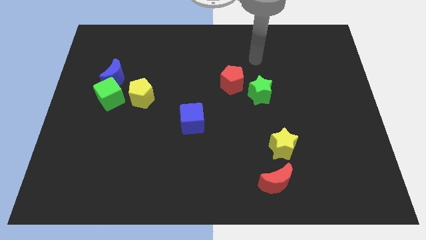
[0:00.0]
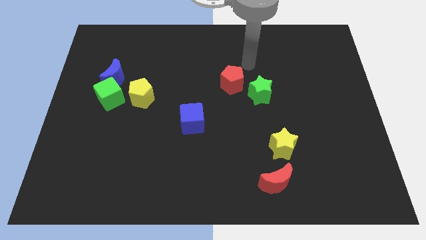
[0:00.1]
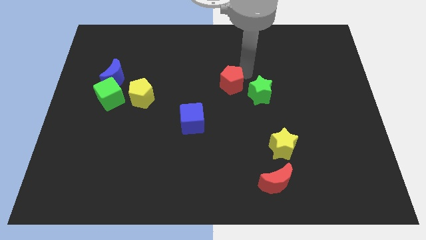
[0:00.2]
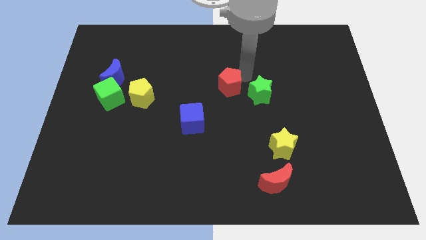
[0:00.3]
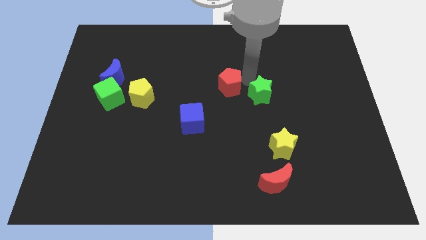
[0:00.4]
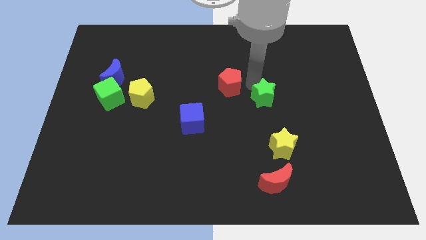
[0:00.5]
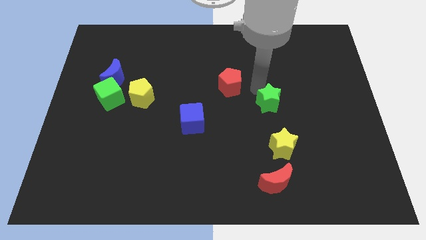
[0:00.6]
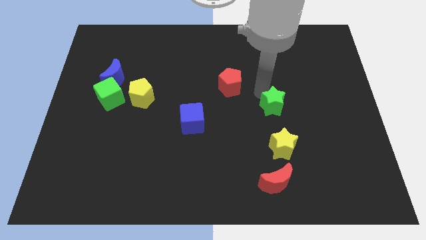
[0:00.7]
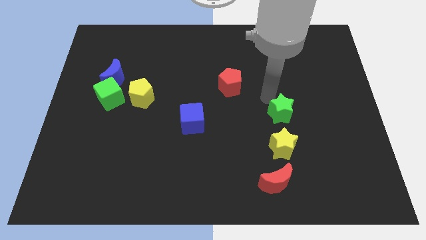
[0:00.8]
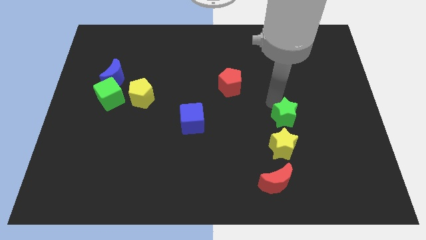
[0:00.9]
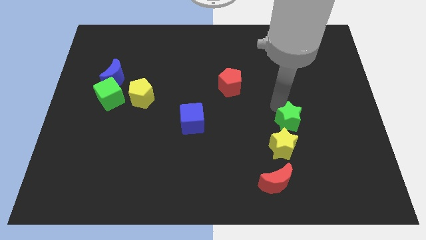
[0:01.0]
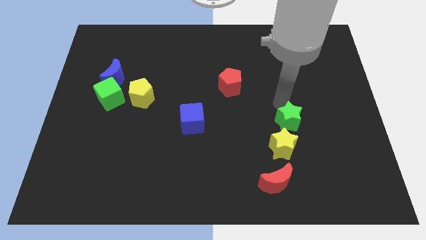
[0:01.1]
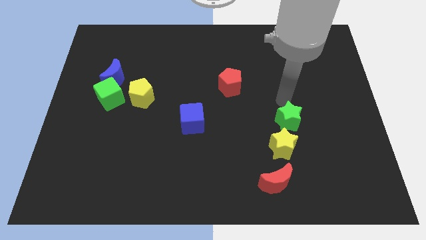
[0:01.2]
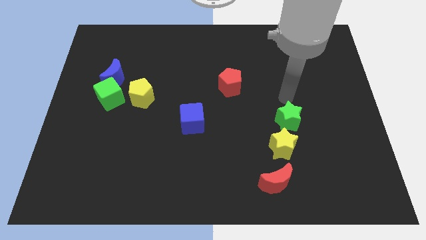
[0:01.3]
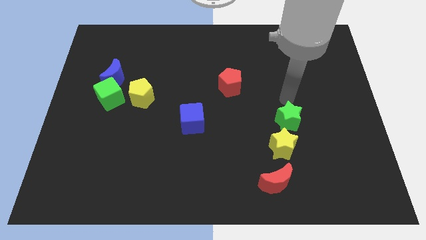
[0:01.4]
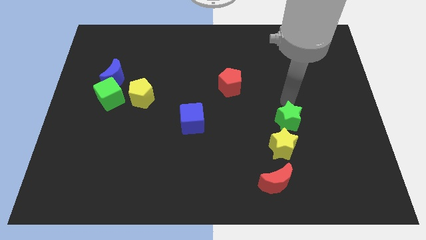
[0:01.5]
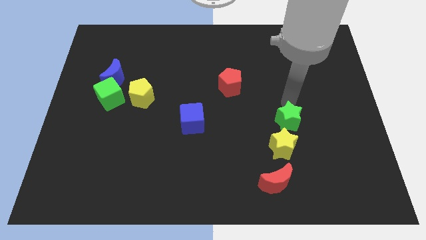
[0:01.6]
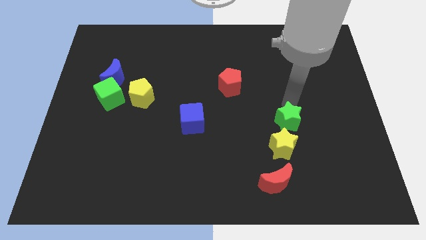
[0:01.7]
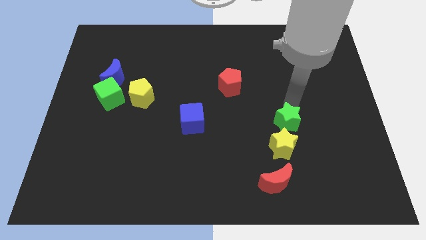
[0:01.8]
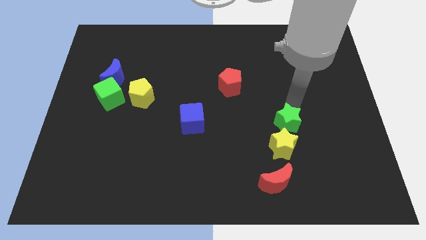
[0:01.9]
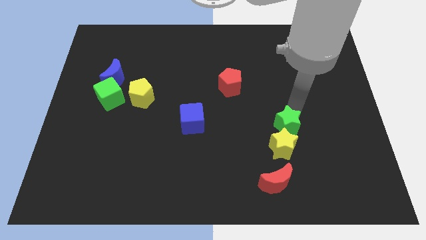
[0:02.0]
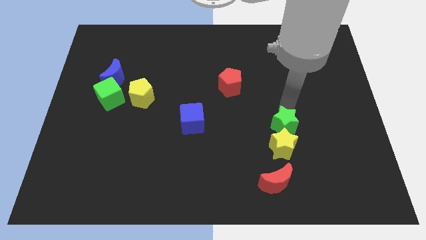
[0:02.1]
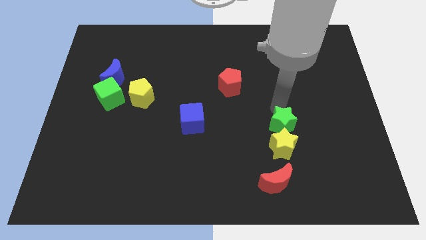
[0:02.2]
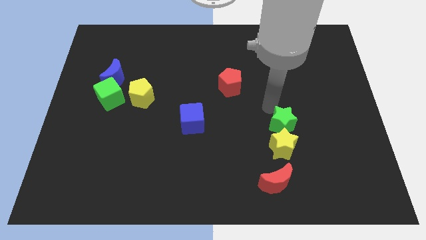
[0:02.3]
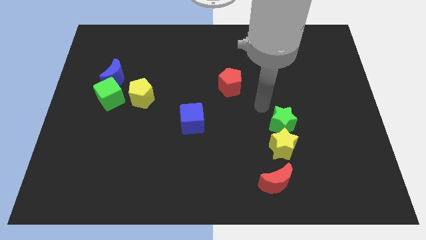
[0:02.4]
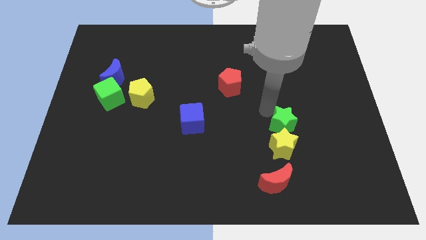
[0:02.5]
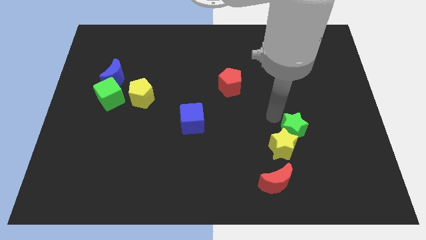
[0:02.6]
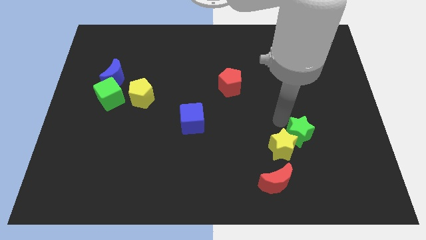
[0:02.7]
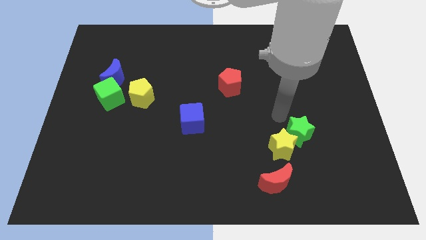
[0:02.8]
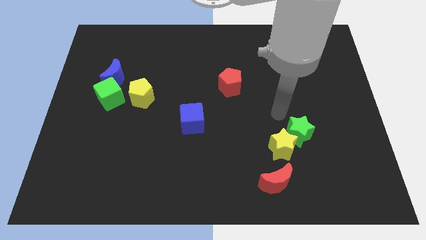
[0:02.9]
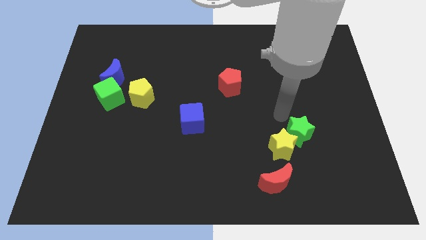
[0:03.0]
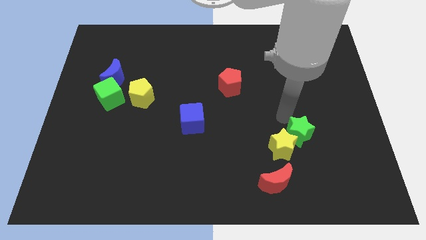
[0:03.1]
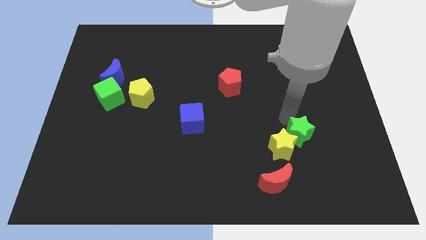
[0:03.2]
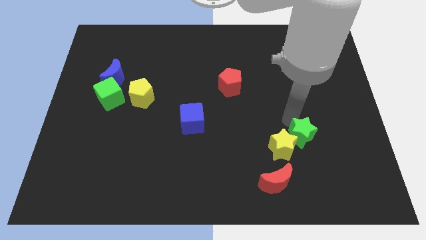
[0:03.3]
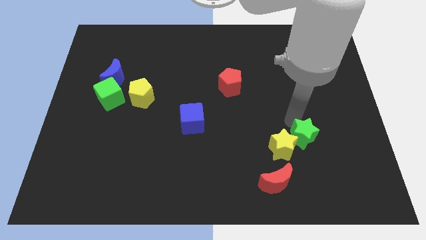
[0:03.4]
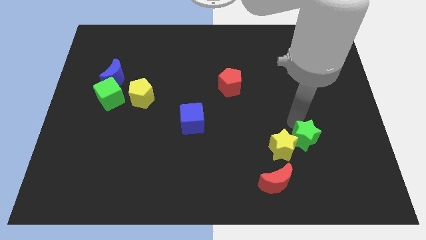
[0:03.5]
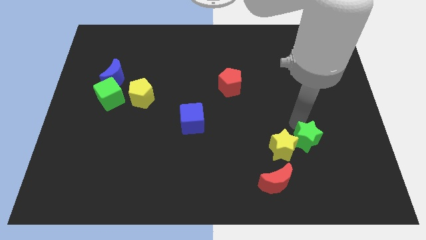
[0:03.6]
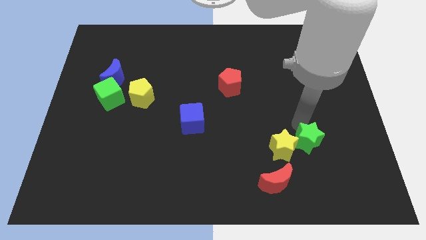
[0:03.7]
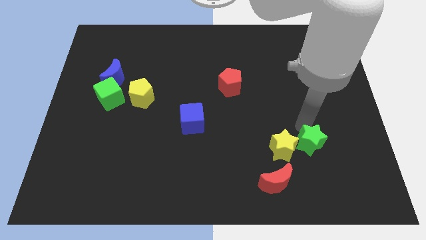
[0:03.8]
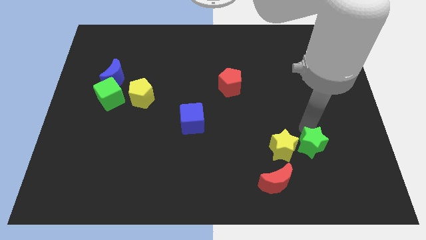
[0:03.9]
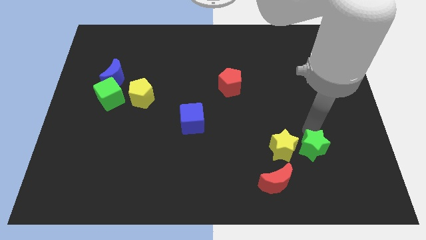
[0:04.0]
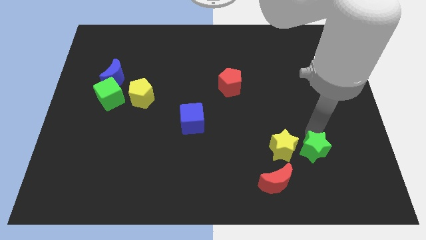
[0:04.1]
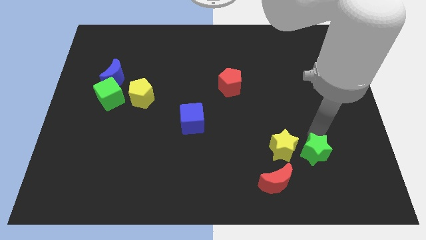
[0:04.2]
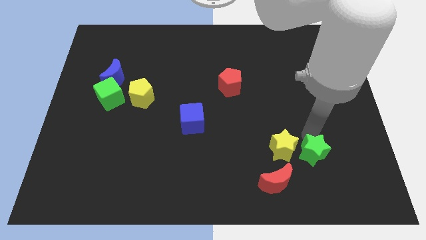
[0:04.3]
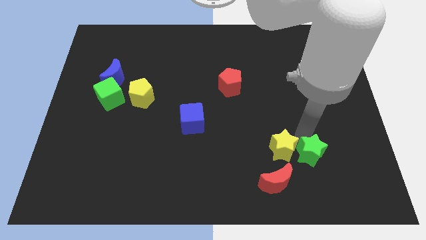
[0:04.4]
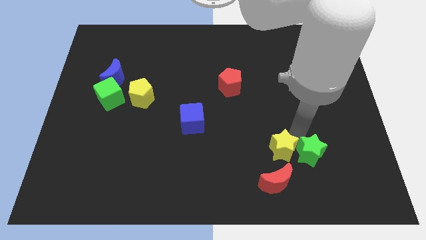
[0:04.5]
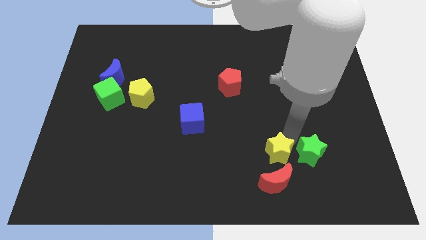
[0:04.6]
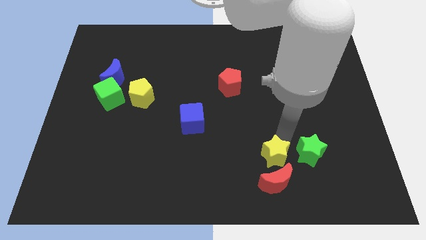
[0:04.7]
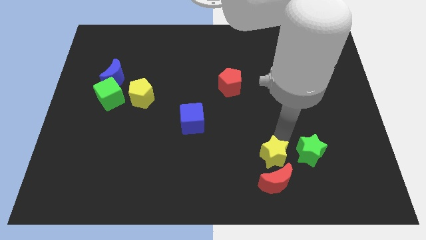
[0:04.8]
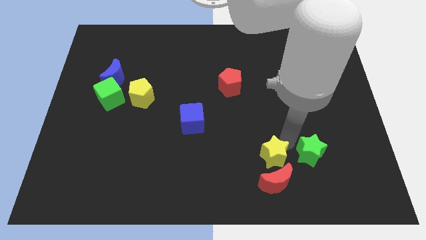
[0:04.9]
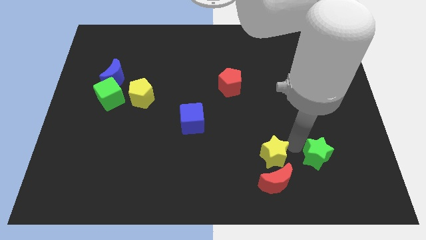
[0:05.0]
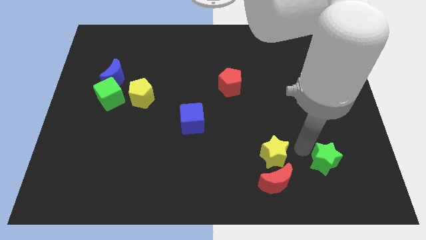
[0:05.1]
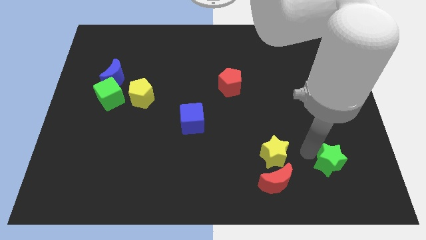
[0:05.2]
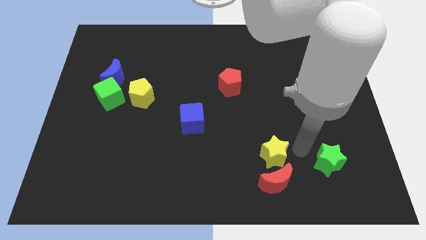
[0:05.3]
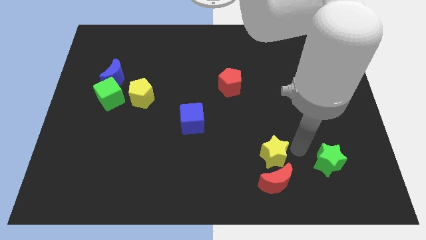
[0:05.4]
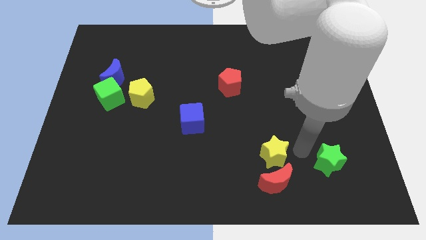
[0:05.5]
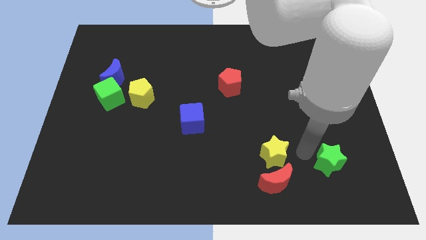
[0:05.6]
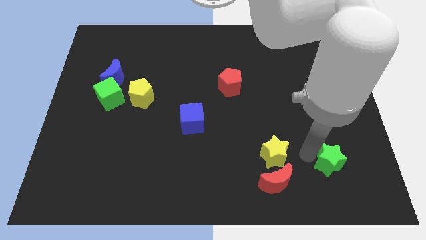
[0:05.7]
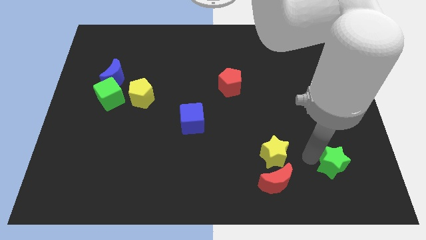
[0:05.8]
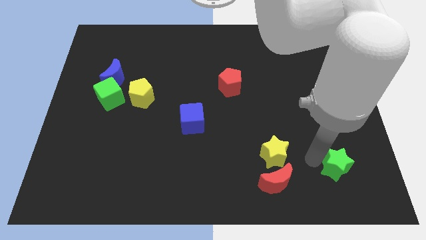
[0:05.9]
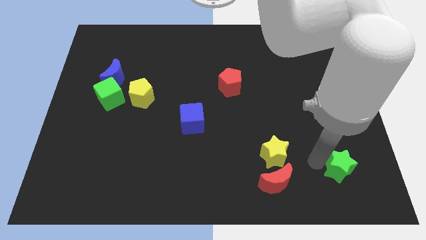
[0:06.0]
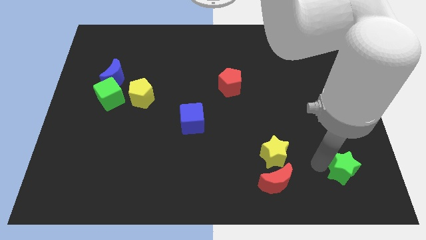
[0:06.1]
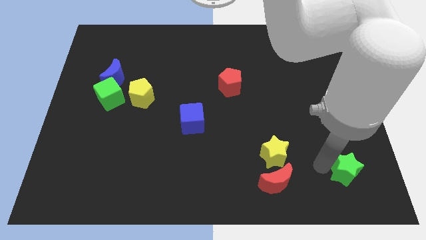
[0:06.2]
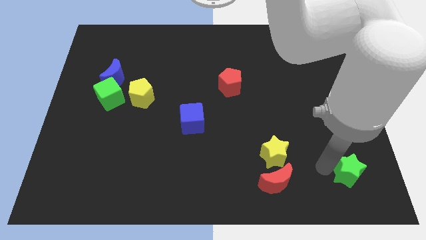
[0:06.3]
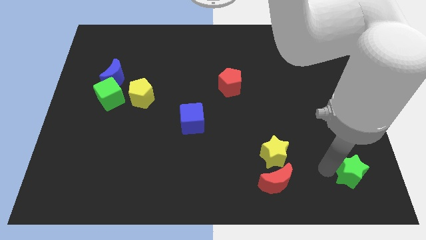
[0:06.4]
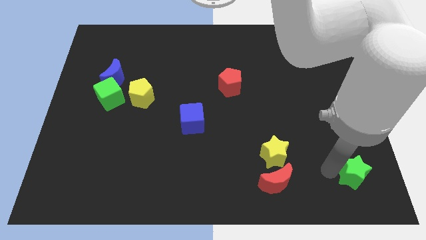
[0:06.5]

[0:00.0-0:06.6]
slide the green star to the bottom right of the board

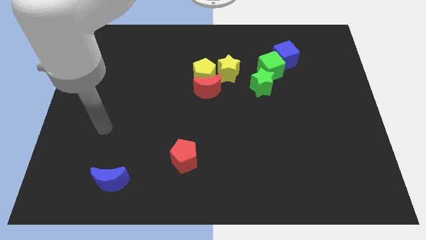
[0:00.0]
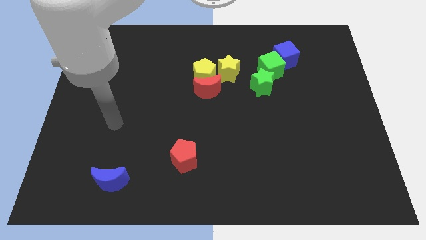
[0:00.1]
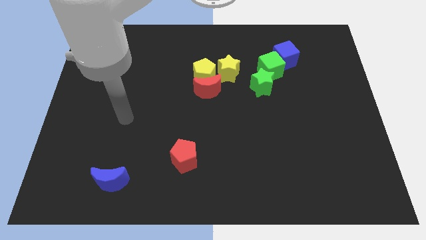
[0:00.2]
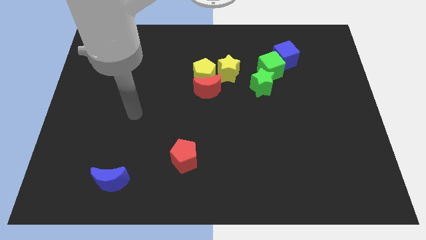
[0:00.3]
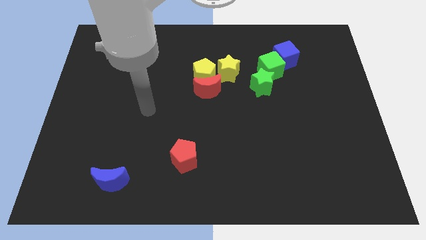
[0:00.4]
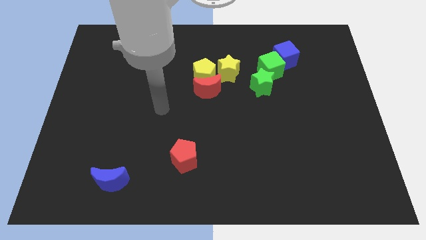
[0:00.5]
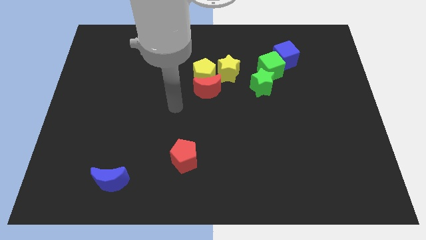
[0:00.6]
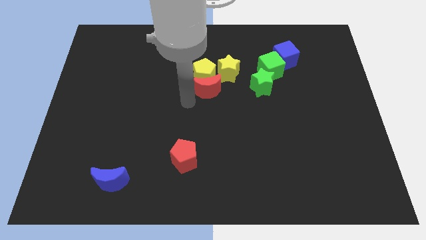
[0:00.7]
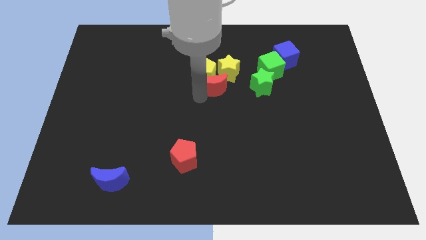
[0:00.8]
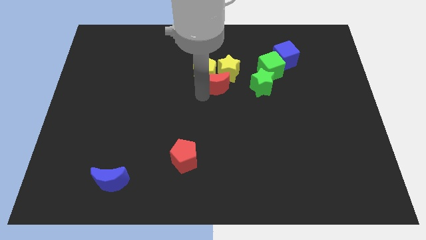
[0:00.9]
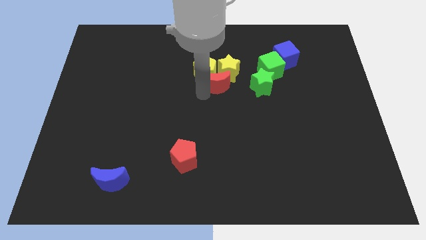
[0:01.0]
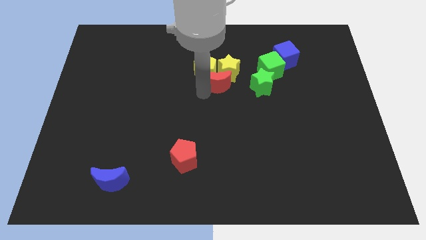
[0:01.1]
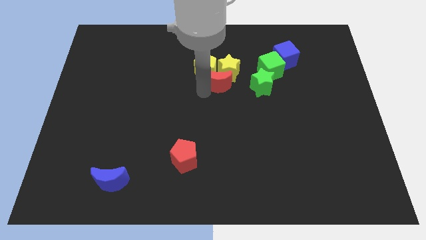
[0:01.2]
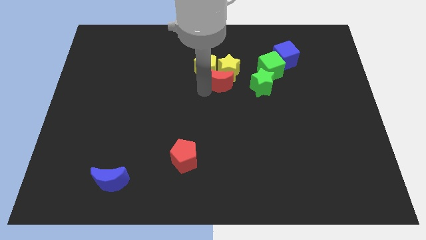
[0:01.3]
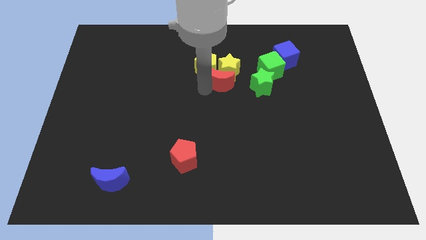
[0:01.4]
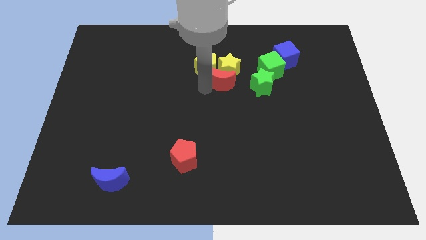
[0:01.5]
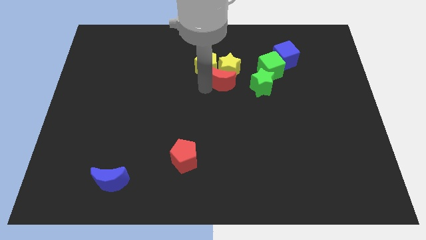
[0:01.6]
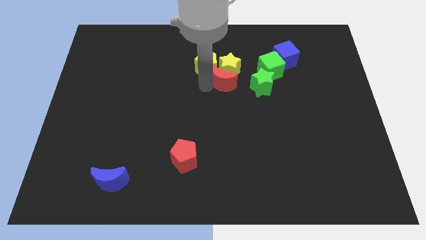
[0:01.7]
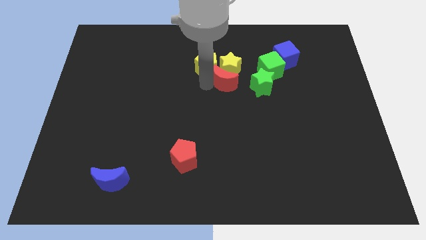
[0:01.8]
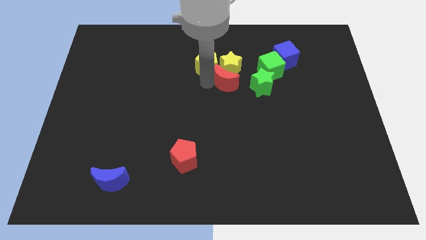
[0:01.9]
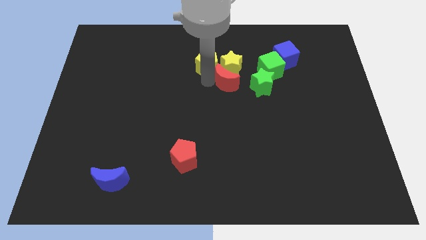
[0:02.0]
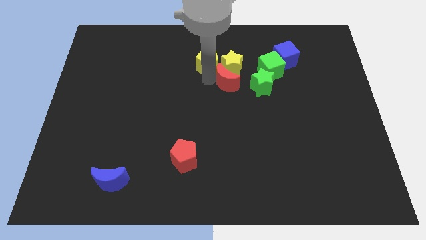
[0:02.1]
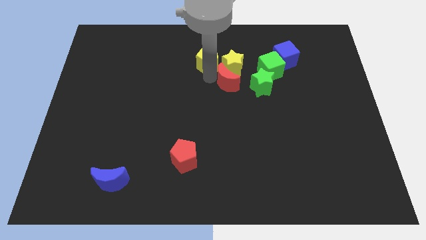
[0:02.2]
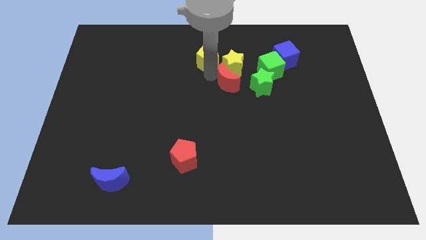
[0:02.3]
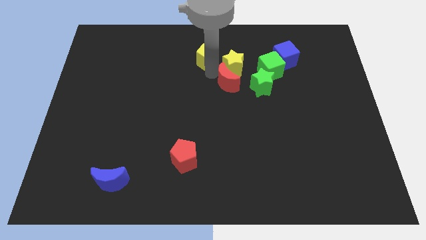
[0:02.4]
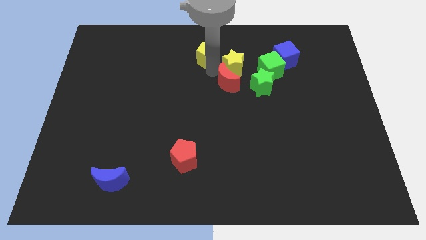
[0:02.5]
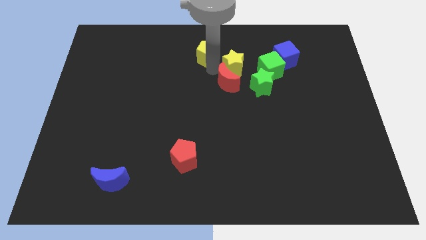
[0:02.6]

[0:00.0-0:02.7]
put the yellow pentagon to the top side
